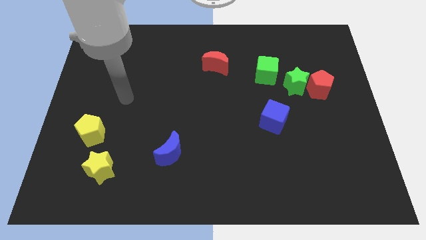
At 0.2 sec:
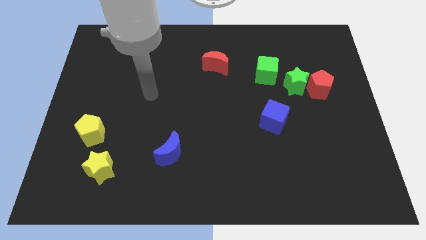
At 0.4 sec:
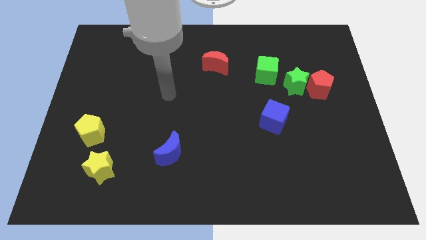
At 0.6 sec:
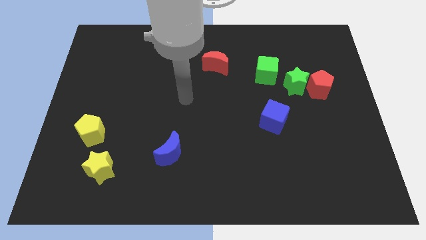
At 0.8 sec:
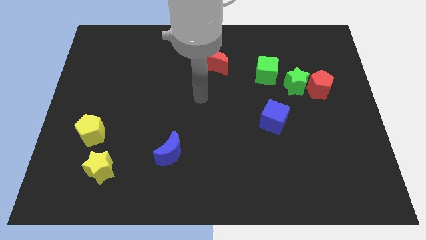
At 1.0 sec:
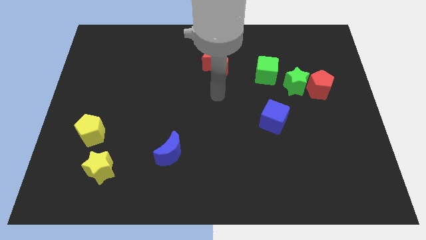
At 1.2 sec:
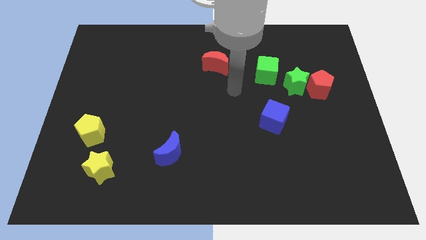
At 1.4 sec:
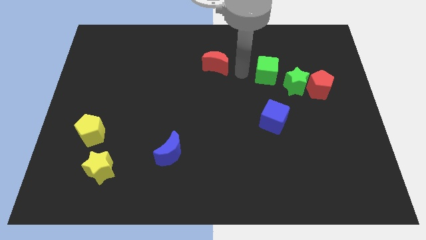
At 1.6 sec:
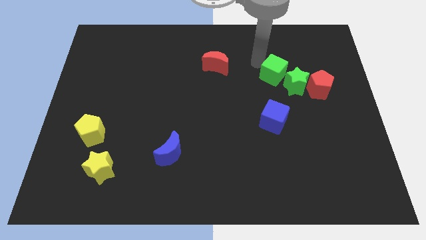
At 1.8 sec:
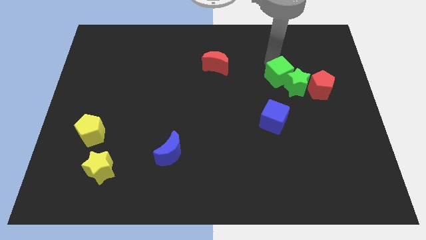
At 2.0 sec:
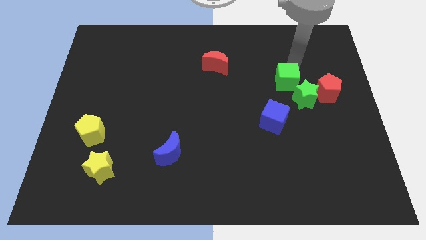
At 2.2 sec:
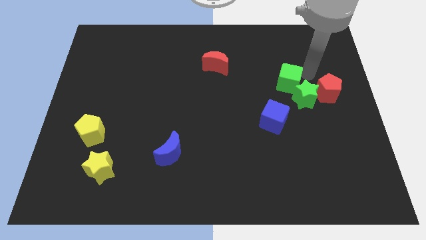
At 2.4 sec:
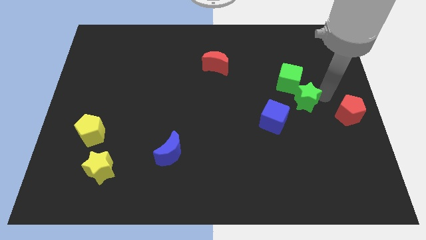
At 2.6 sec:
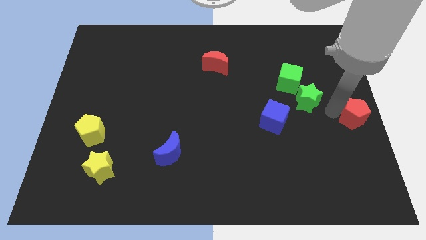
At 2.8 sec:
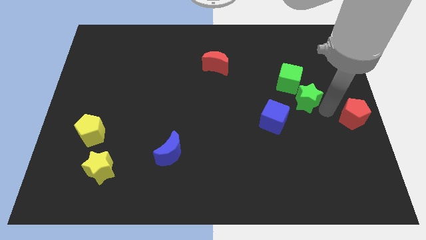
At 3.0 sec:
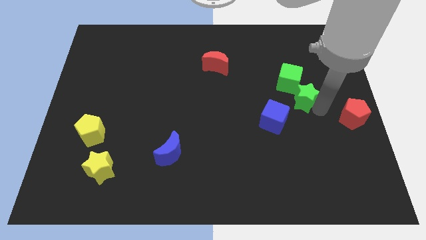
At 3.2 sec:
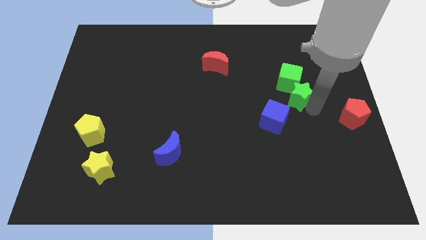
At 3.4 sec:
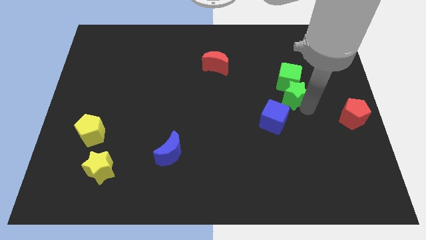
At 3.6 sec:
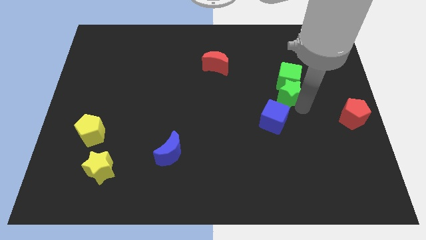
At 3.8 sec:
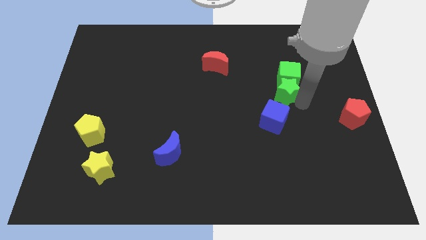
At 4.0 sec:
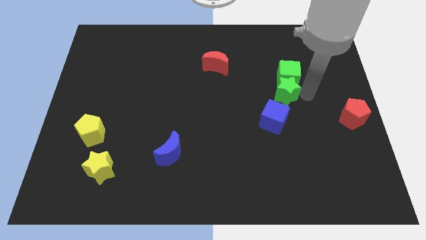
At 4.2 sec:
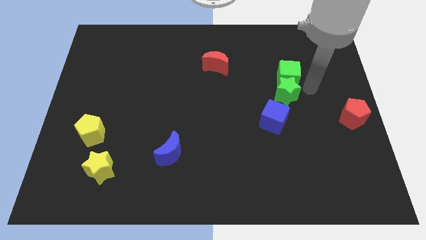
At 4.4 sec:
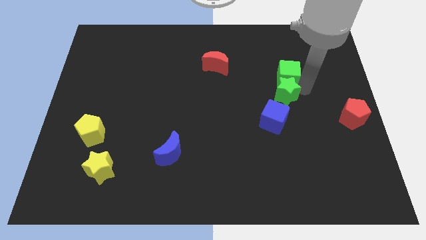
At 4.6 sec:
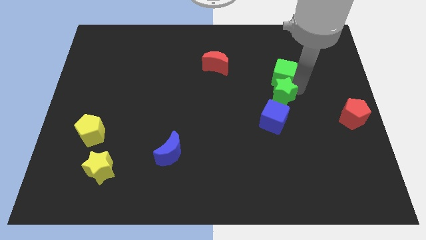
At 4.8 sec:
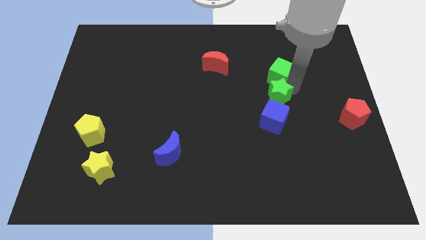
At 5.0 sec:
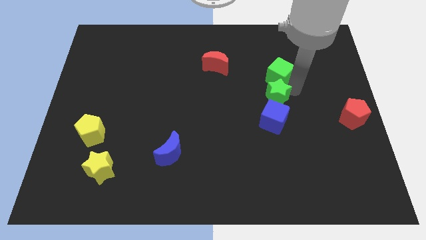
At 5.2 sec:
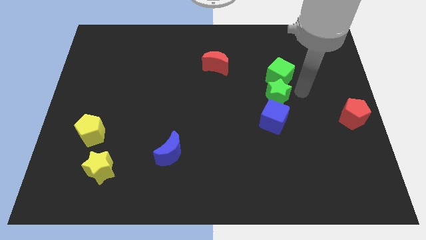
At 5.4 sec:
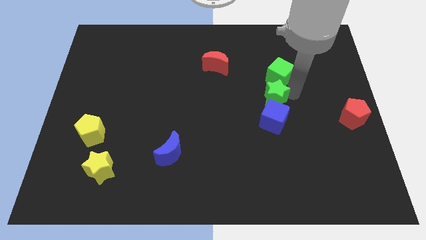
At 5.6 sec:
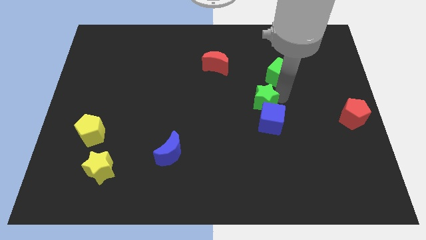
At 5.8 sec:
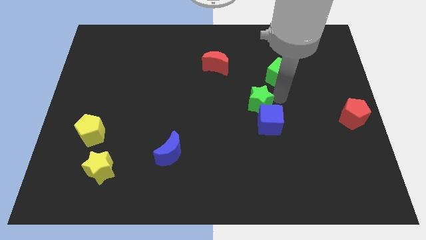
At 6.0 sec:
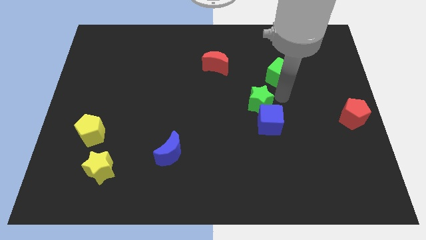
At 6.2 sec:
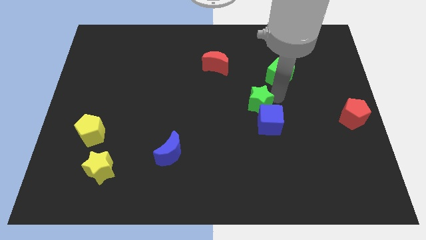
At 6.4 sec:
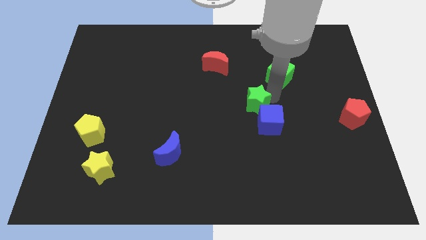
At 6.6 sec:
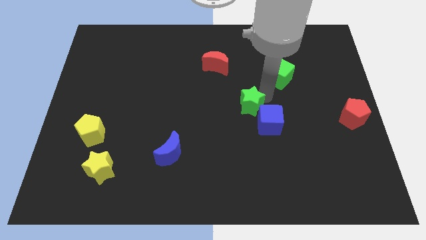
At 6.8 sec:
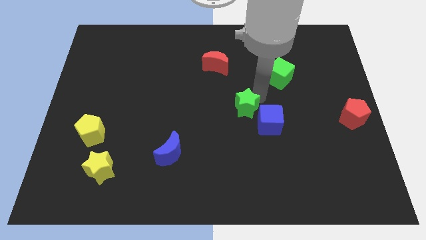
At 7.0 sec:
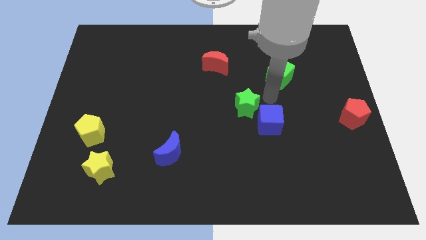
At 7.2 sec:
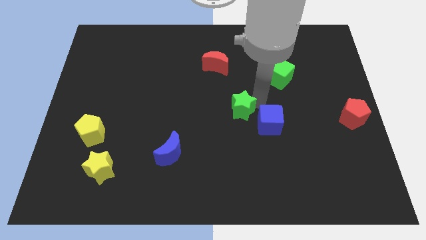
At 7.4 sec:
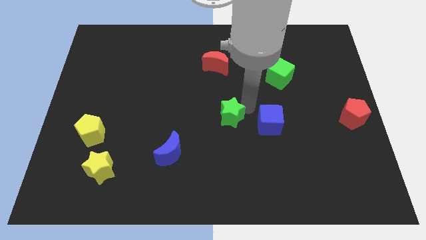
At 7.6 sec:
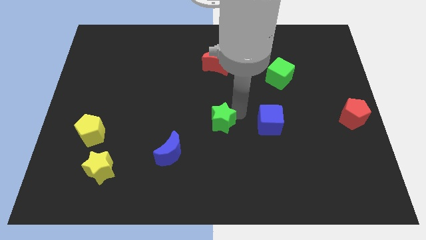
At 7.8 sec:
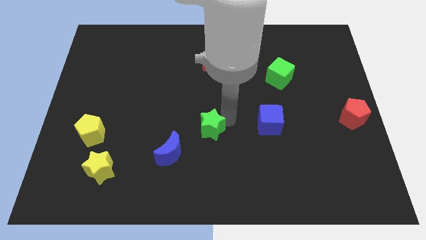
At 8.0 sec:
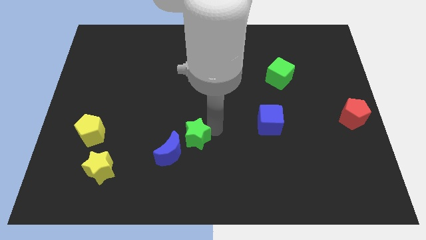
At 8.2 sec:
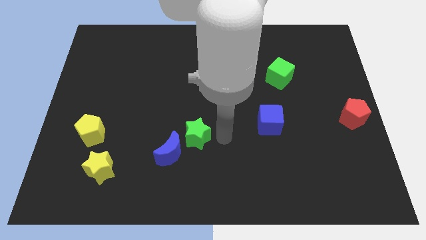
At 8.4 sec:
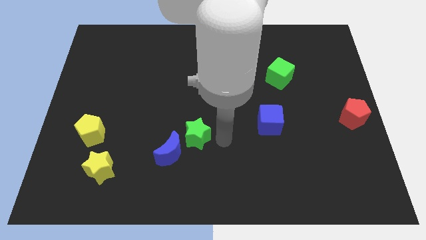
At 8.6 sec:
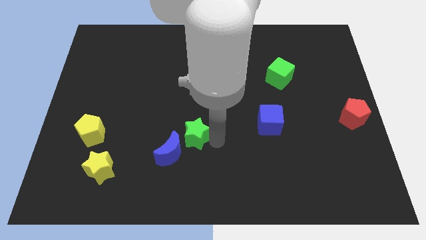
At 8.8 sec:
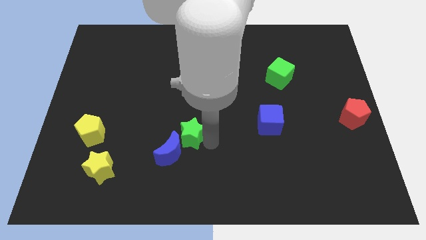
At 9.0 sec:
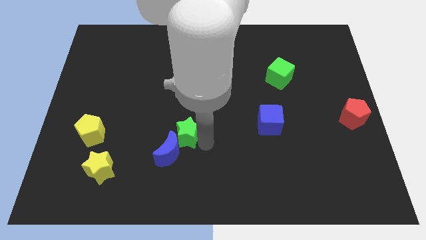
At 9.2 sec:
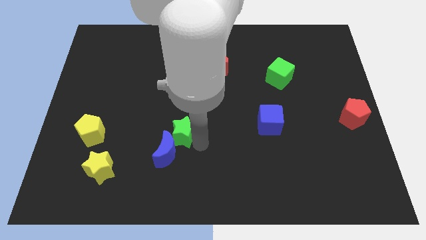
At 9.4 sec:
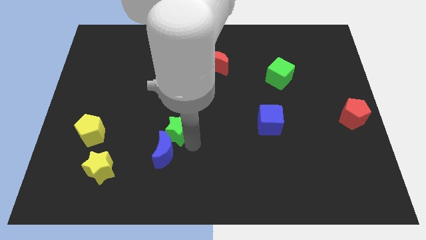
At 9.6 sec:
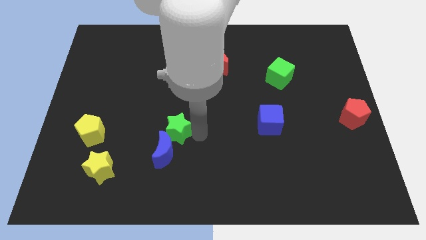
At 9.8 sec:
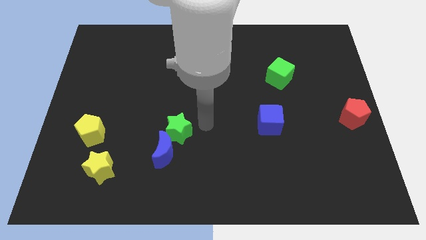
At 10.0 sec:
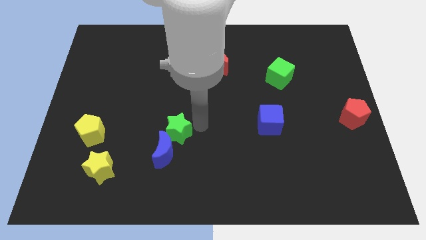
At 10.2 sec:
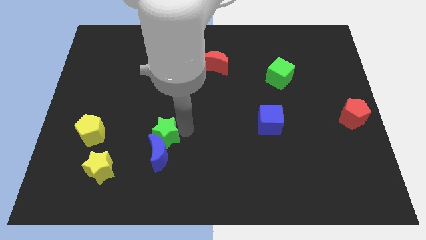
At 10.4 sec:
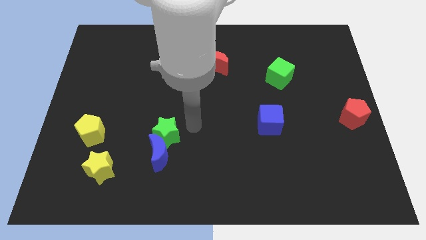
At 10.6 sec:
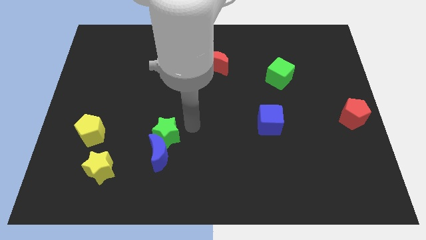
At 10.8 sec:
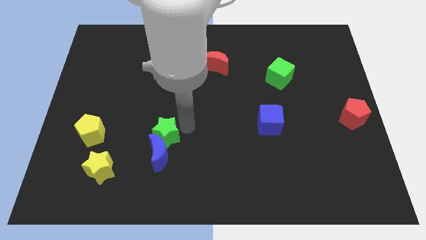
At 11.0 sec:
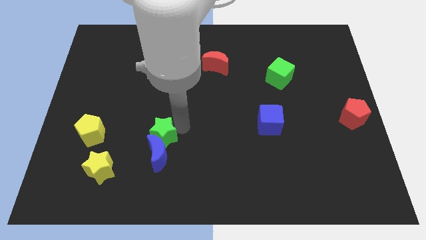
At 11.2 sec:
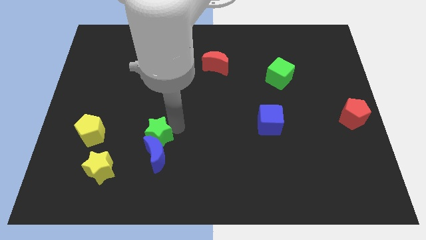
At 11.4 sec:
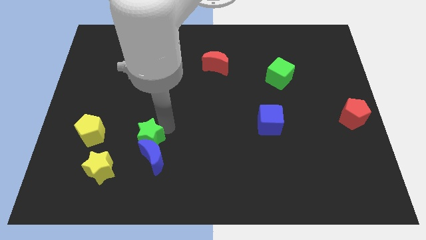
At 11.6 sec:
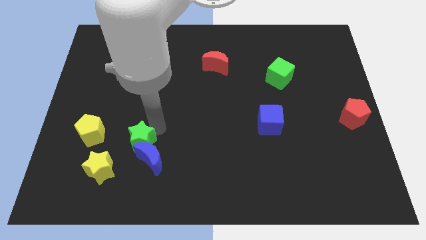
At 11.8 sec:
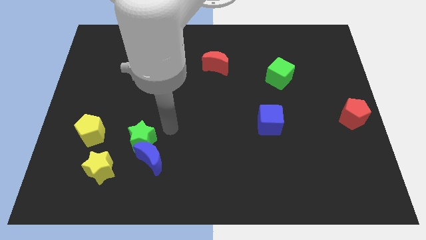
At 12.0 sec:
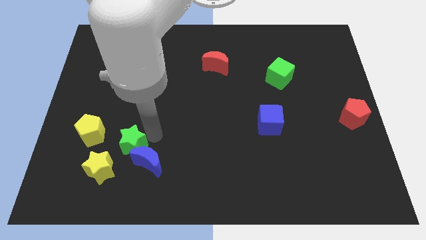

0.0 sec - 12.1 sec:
slide the green star just left of the blue moon
